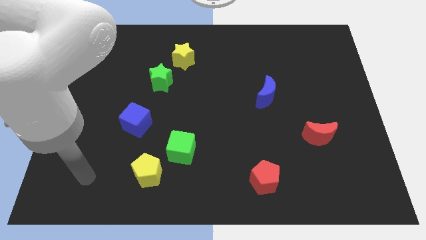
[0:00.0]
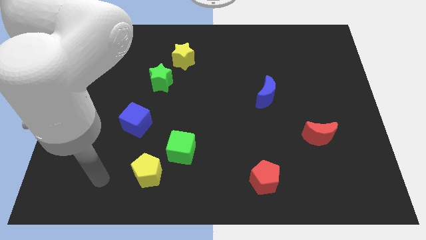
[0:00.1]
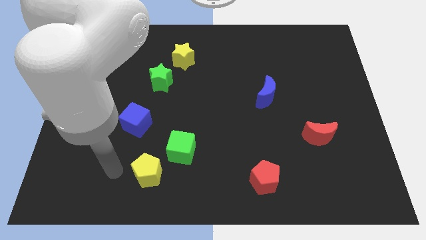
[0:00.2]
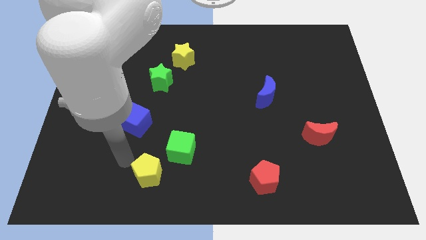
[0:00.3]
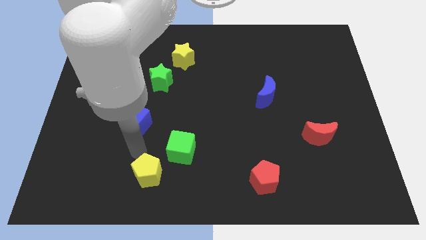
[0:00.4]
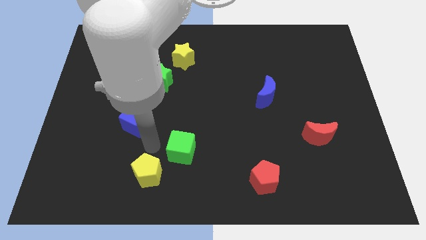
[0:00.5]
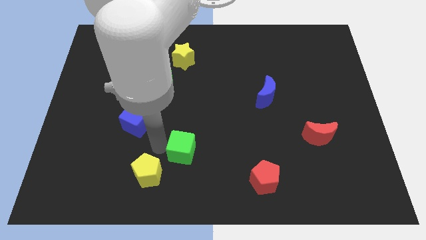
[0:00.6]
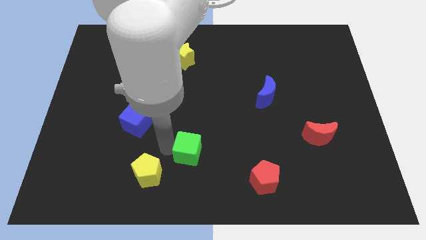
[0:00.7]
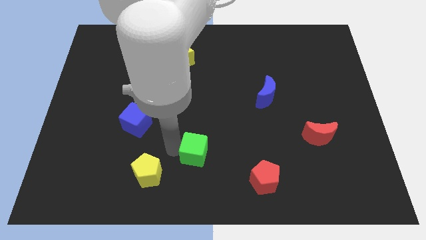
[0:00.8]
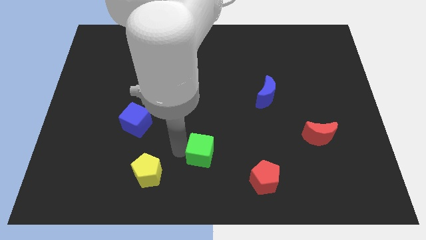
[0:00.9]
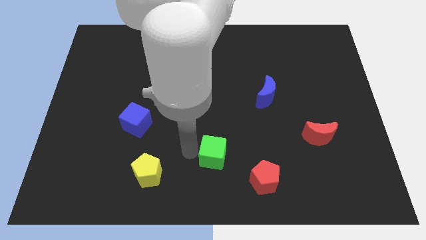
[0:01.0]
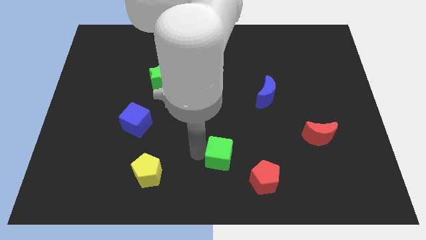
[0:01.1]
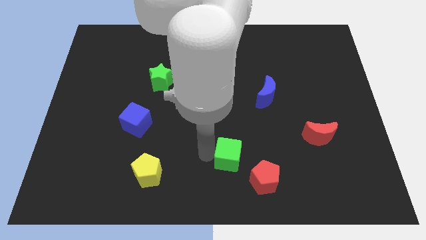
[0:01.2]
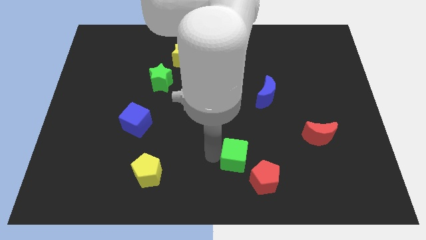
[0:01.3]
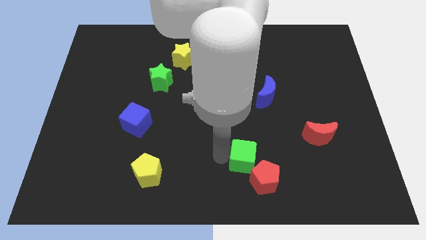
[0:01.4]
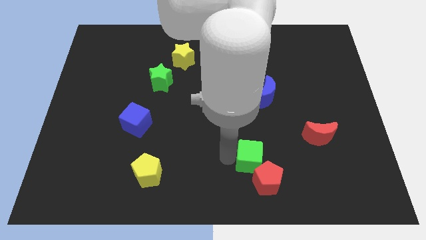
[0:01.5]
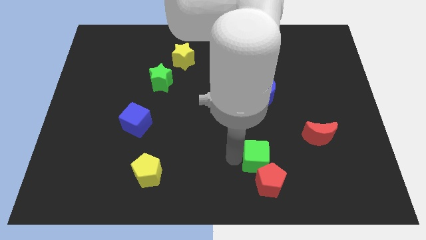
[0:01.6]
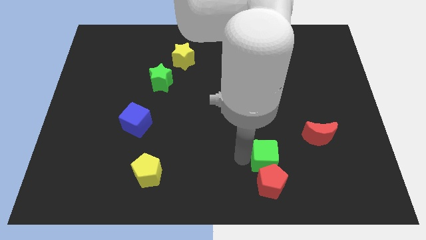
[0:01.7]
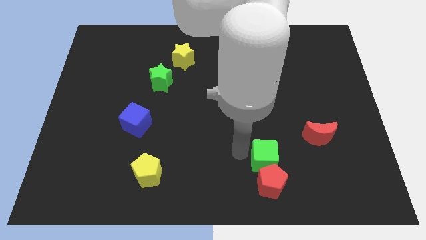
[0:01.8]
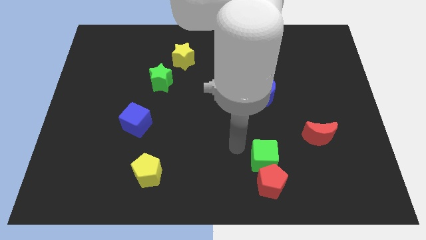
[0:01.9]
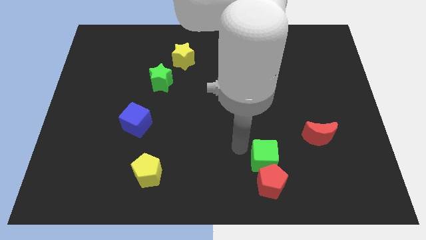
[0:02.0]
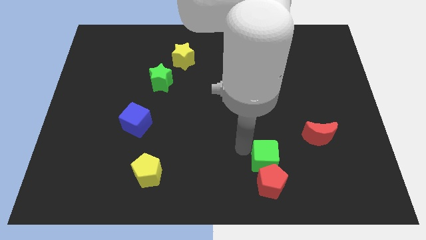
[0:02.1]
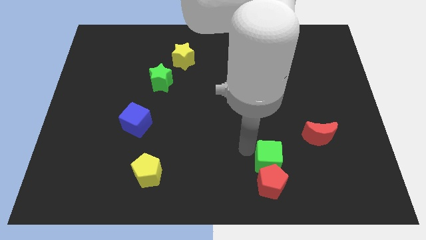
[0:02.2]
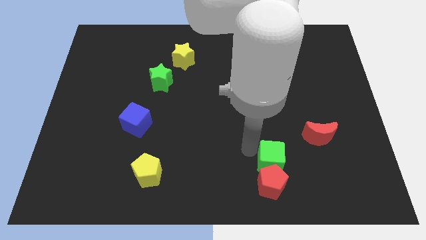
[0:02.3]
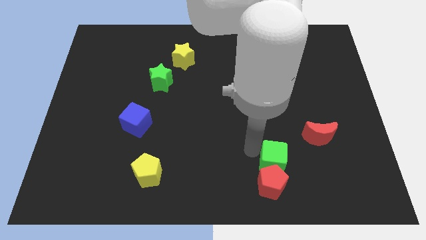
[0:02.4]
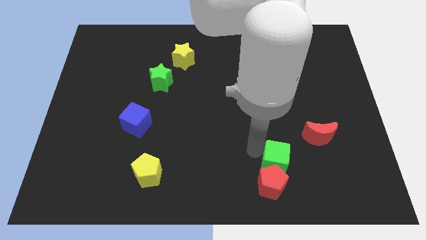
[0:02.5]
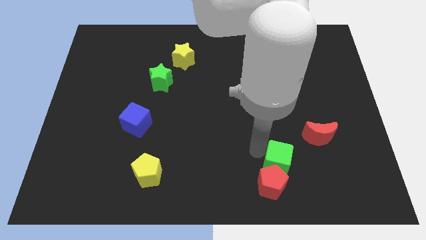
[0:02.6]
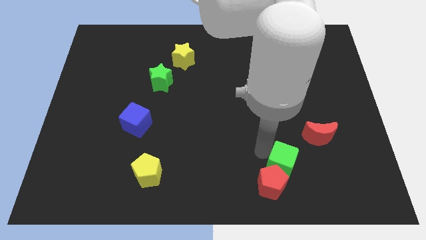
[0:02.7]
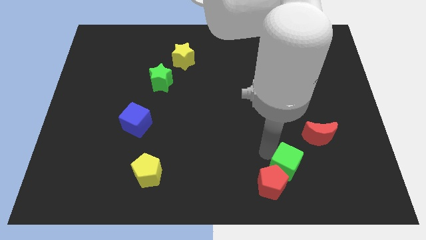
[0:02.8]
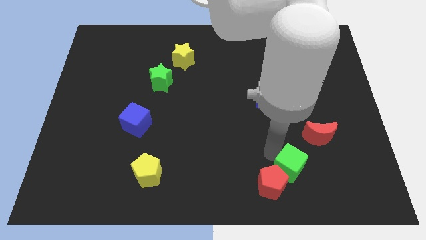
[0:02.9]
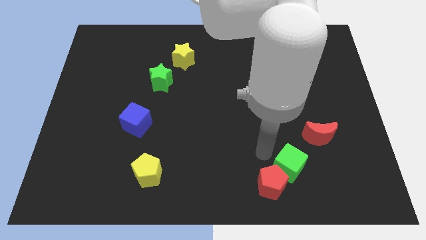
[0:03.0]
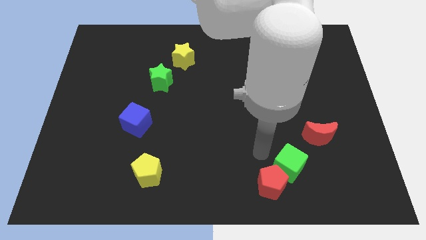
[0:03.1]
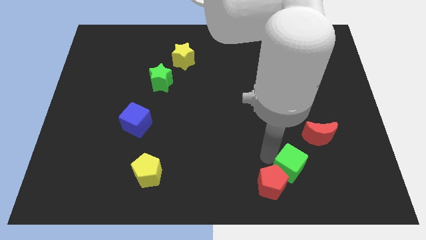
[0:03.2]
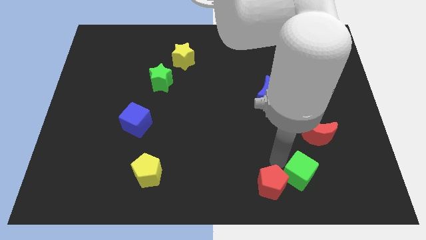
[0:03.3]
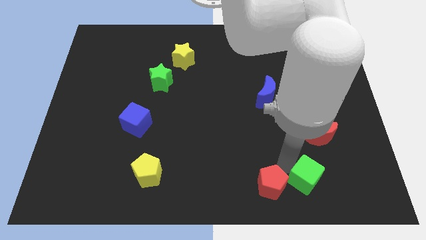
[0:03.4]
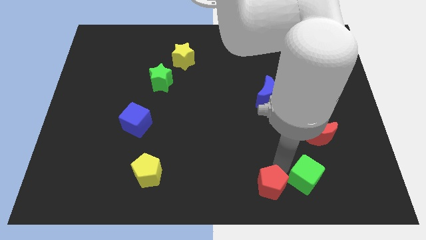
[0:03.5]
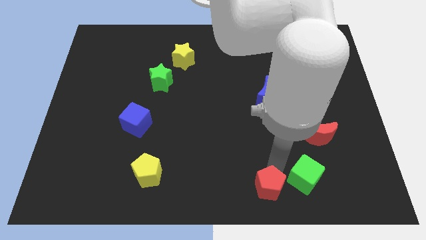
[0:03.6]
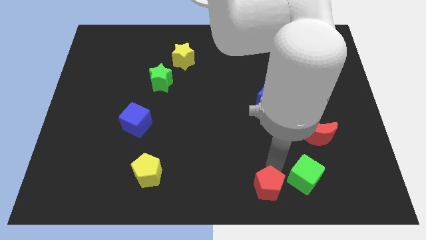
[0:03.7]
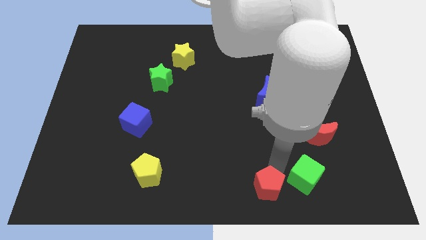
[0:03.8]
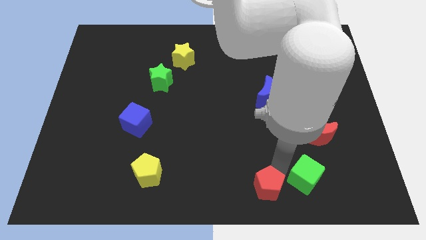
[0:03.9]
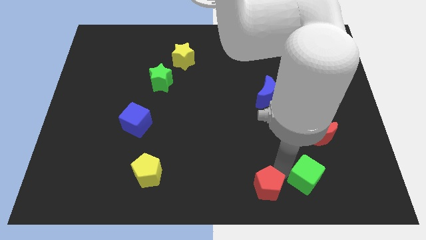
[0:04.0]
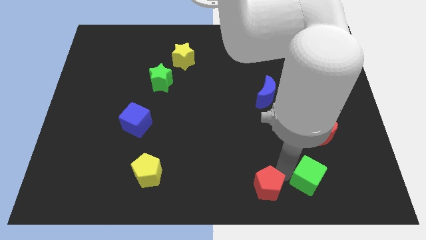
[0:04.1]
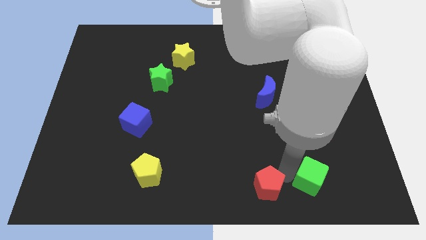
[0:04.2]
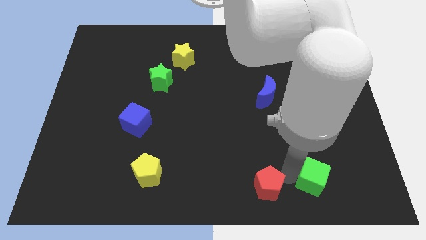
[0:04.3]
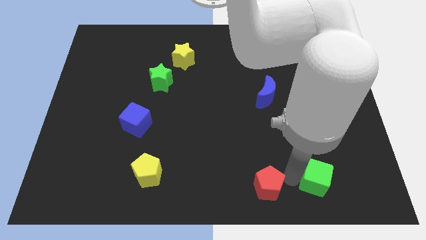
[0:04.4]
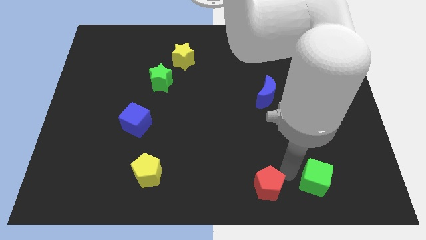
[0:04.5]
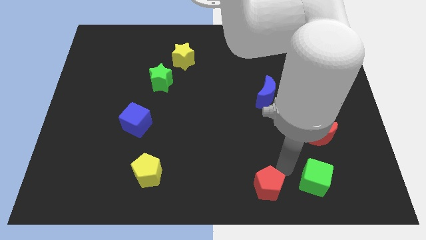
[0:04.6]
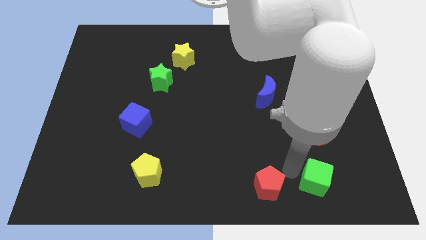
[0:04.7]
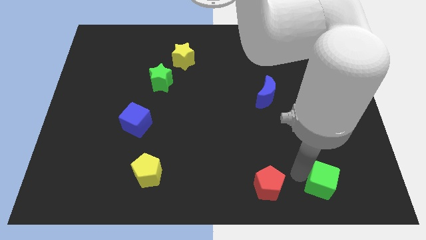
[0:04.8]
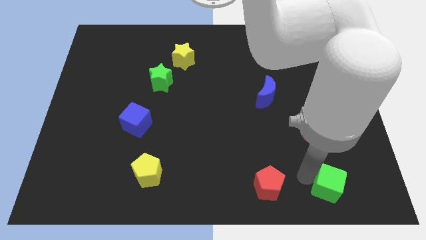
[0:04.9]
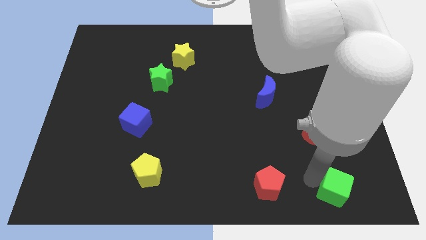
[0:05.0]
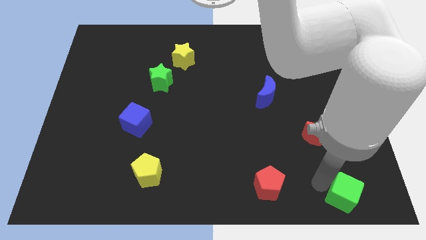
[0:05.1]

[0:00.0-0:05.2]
move the green cube to the lower right corner

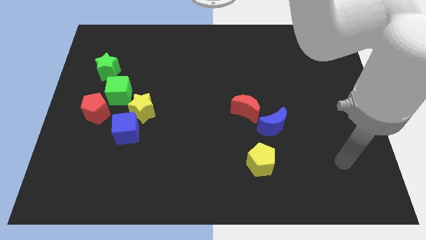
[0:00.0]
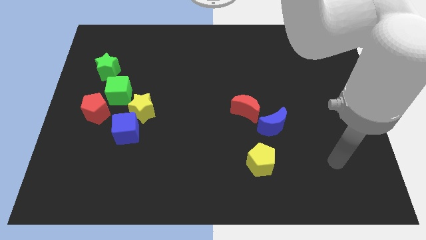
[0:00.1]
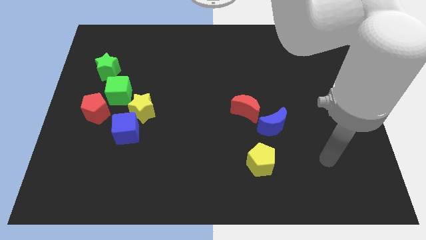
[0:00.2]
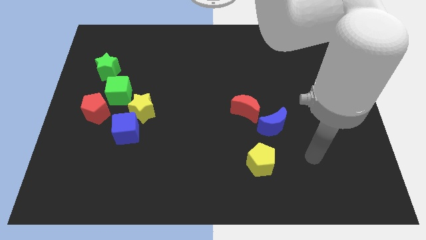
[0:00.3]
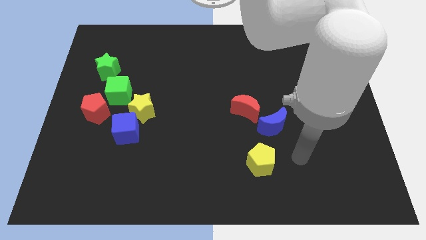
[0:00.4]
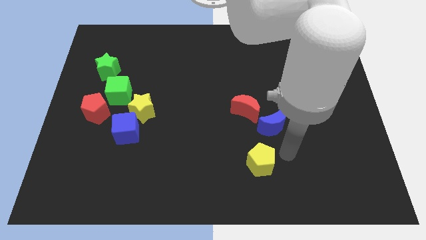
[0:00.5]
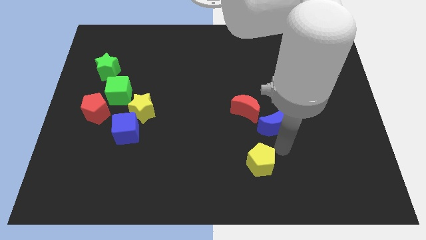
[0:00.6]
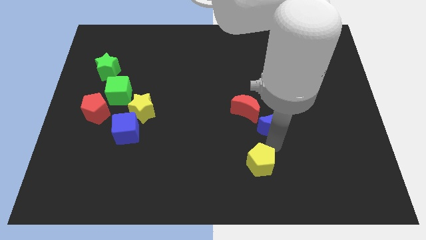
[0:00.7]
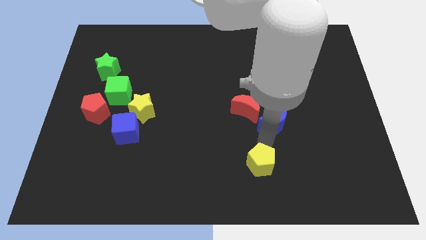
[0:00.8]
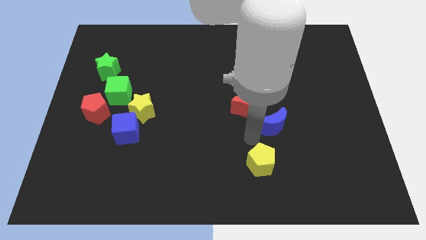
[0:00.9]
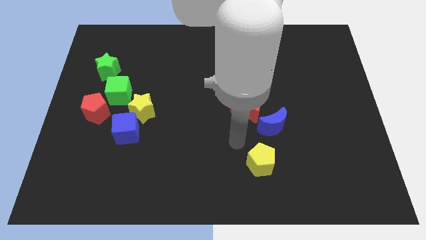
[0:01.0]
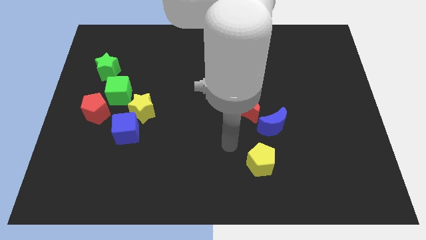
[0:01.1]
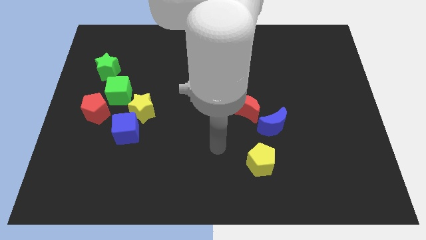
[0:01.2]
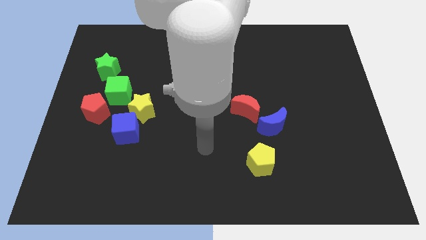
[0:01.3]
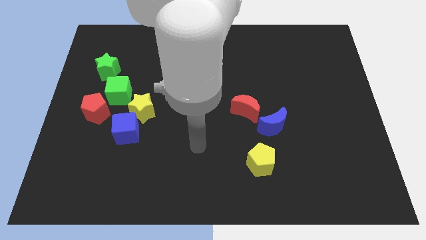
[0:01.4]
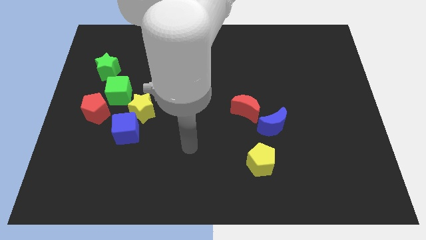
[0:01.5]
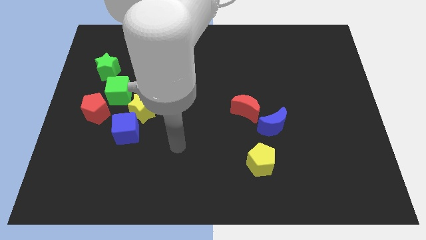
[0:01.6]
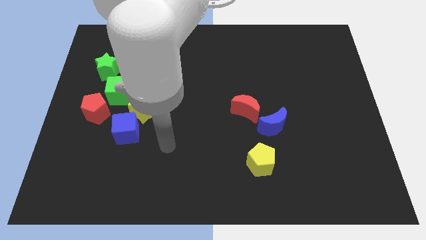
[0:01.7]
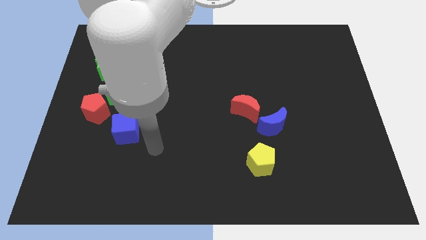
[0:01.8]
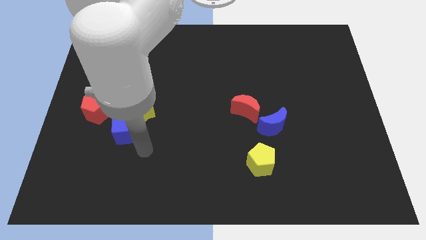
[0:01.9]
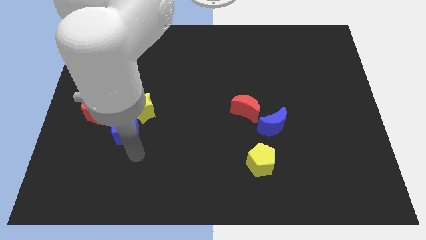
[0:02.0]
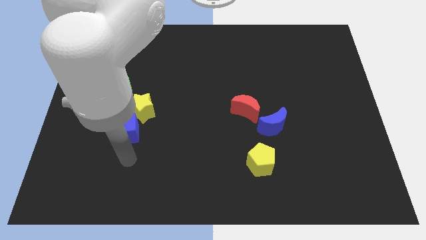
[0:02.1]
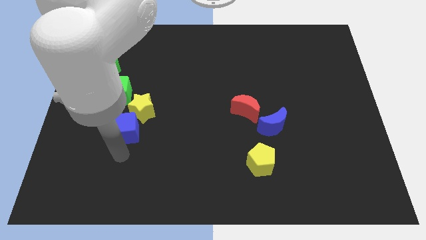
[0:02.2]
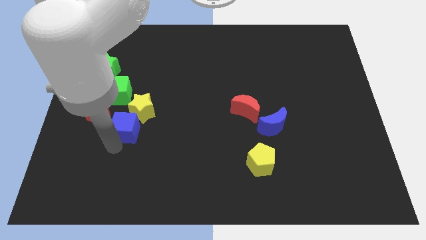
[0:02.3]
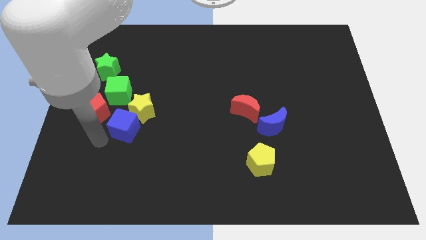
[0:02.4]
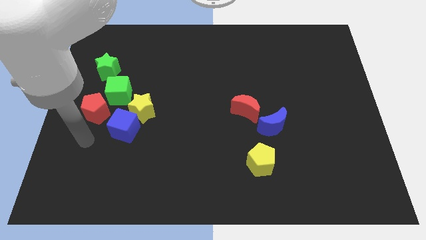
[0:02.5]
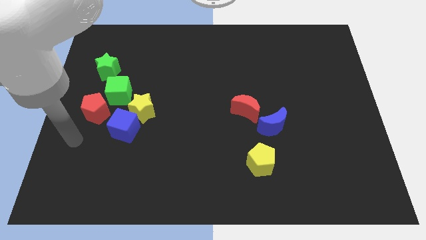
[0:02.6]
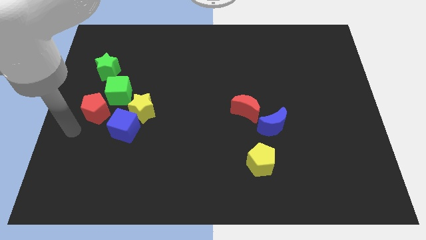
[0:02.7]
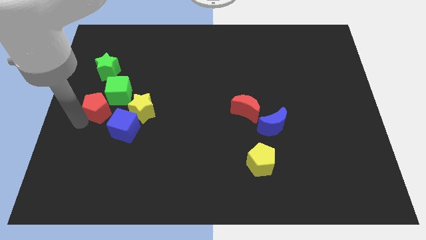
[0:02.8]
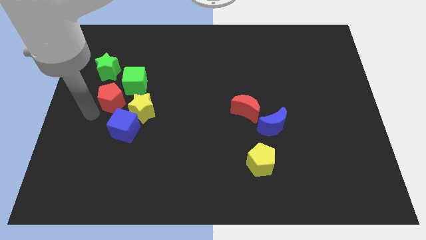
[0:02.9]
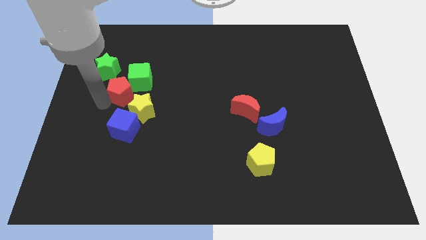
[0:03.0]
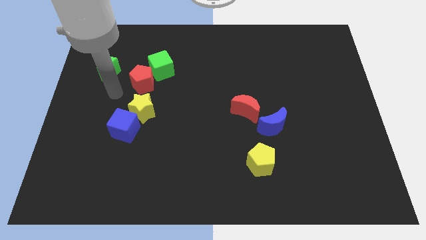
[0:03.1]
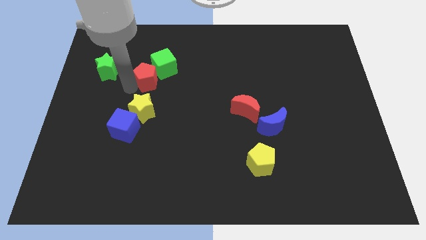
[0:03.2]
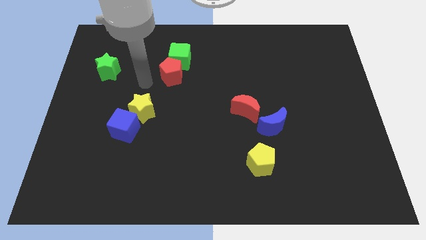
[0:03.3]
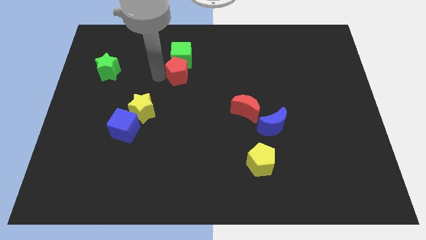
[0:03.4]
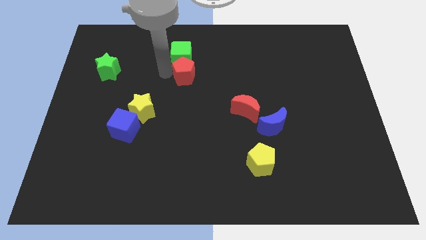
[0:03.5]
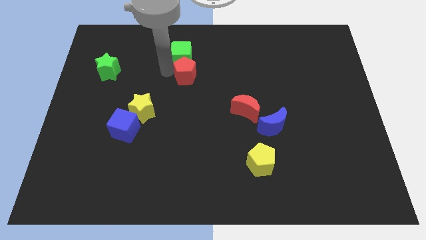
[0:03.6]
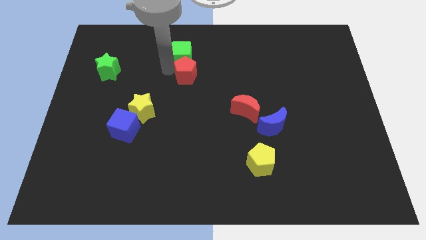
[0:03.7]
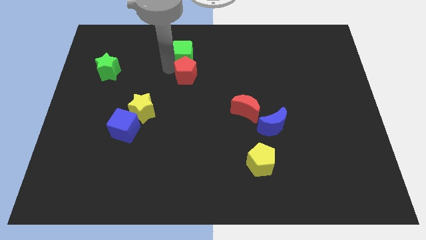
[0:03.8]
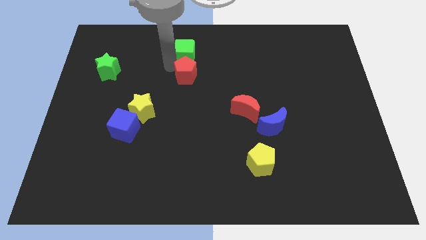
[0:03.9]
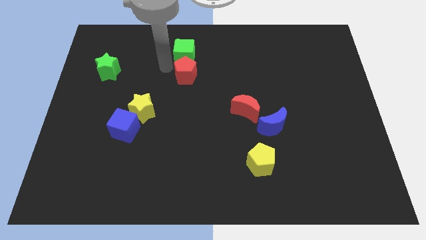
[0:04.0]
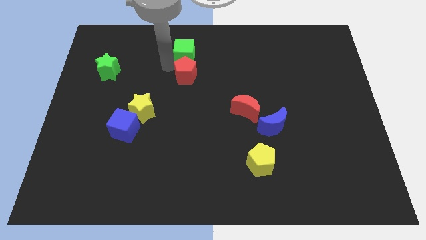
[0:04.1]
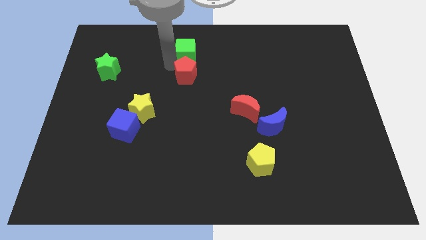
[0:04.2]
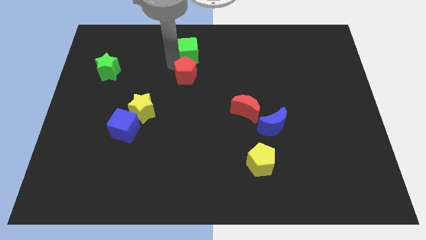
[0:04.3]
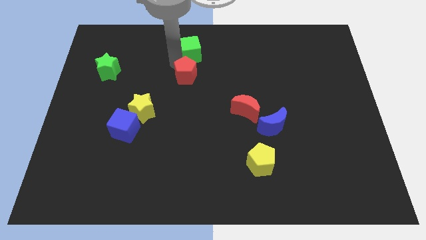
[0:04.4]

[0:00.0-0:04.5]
put the green cube to the top side
